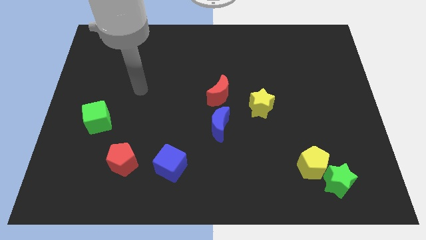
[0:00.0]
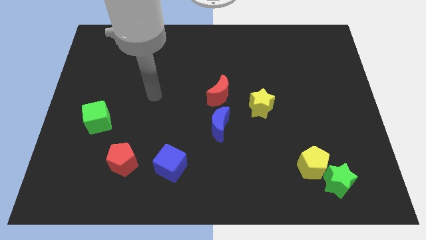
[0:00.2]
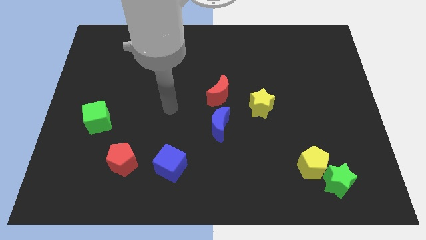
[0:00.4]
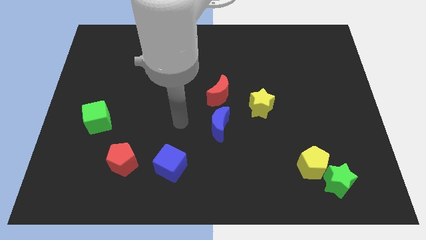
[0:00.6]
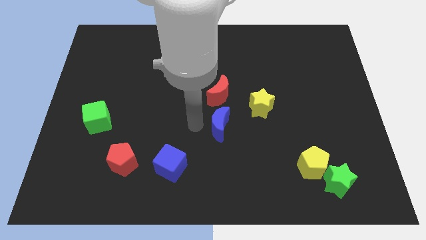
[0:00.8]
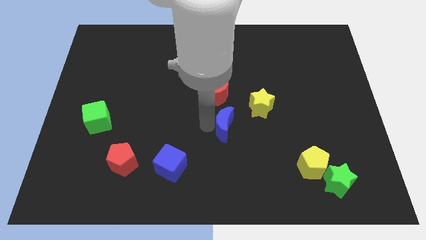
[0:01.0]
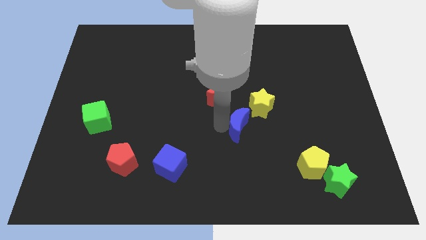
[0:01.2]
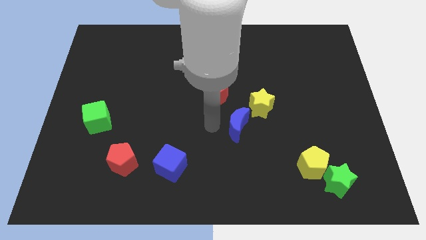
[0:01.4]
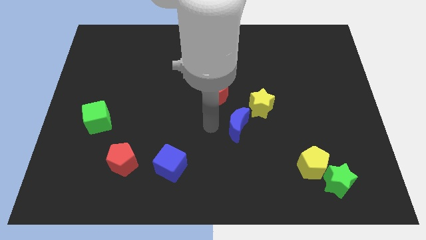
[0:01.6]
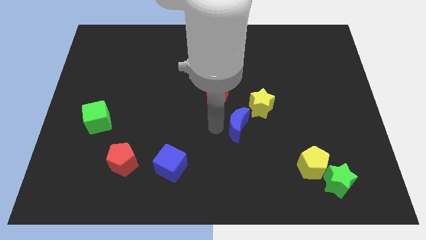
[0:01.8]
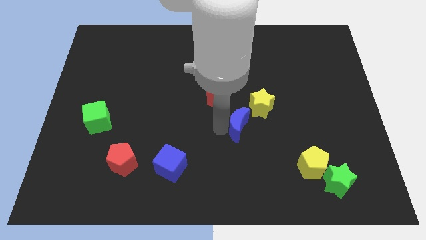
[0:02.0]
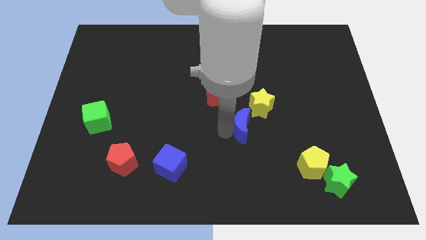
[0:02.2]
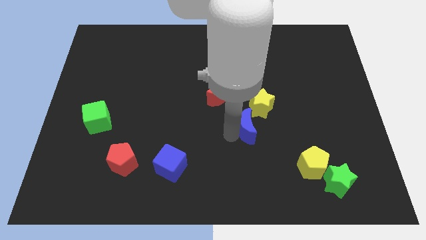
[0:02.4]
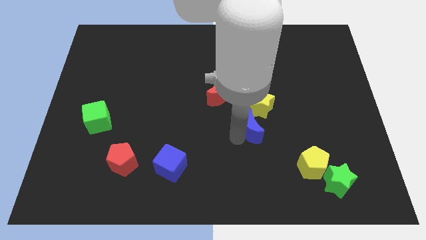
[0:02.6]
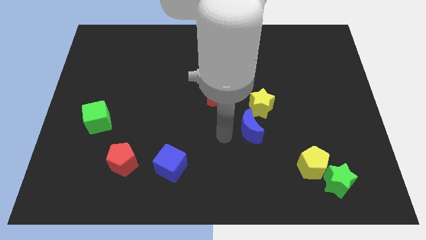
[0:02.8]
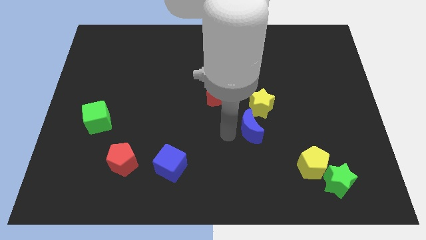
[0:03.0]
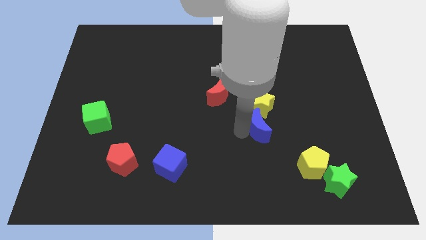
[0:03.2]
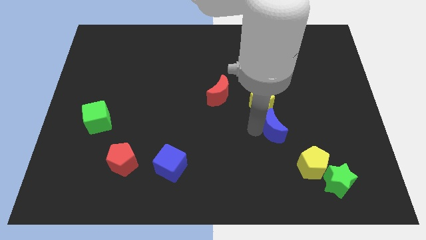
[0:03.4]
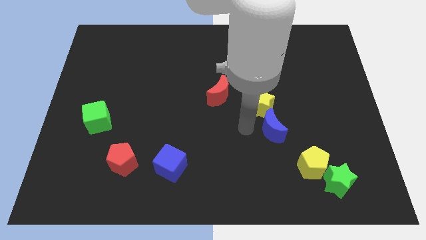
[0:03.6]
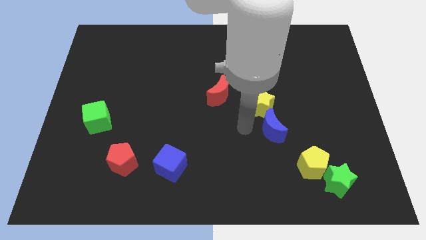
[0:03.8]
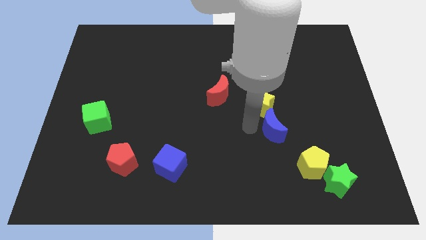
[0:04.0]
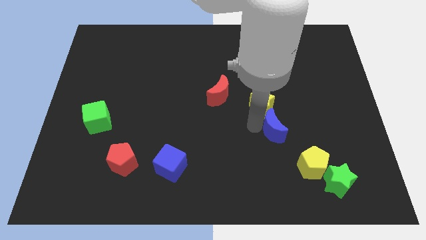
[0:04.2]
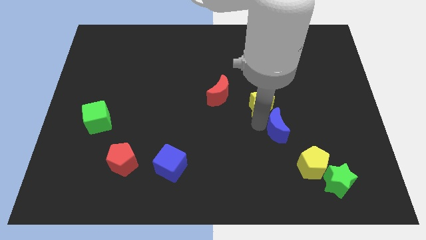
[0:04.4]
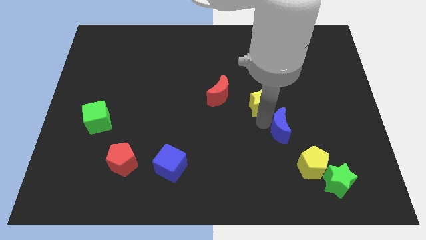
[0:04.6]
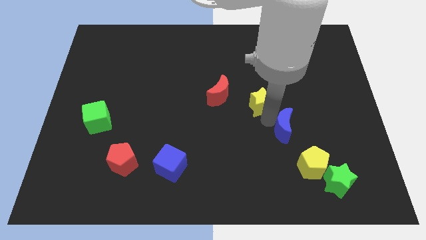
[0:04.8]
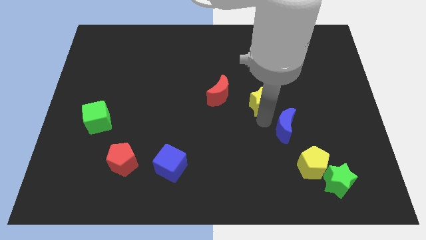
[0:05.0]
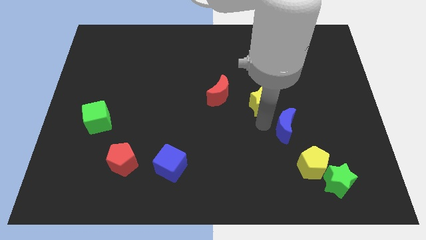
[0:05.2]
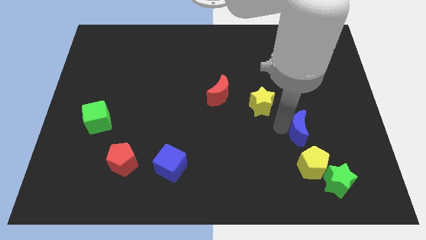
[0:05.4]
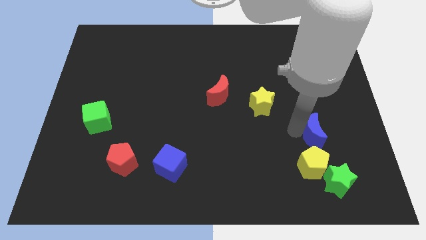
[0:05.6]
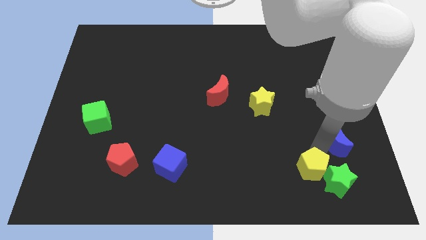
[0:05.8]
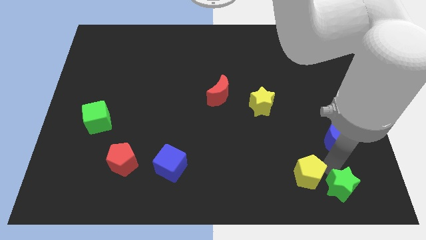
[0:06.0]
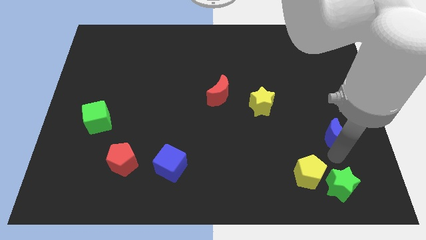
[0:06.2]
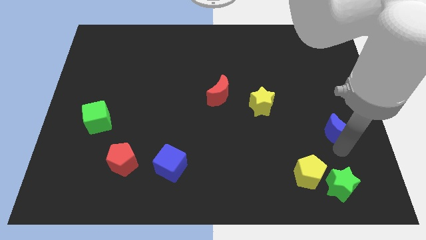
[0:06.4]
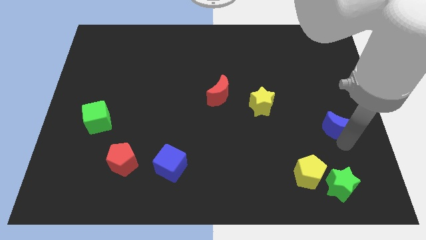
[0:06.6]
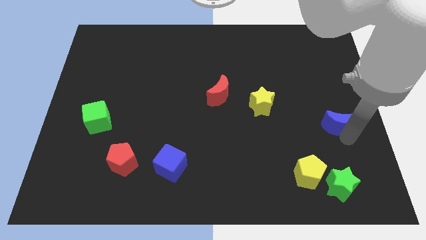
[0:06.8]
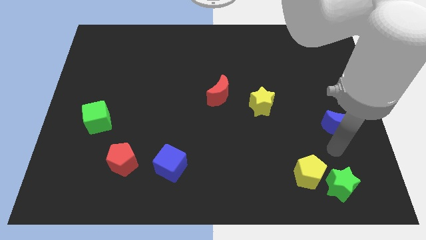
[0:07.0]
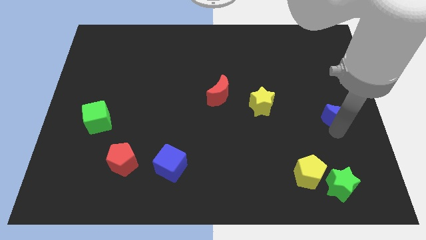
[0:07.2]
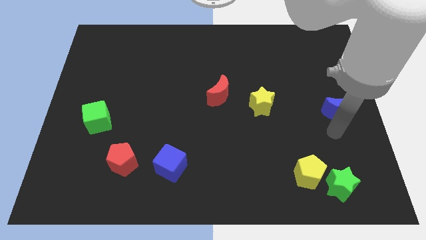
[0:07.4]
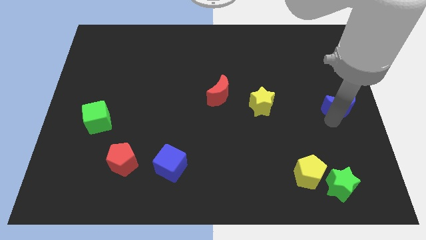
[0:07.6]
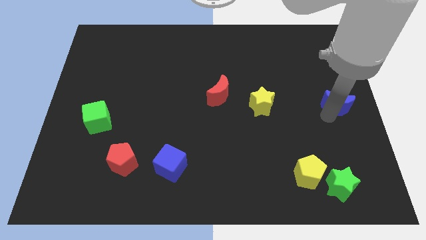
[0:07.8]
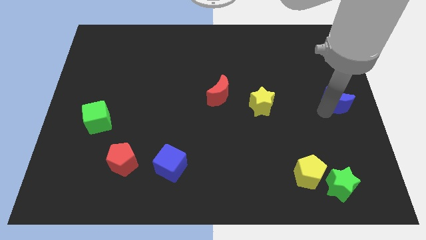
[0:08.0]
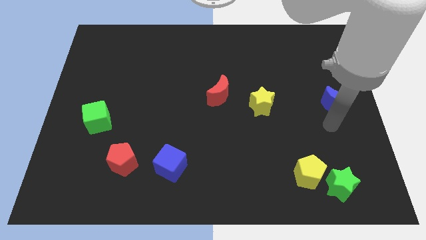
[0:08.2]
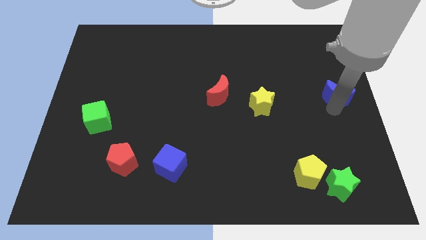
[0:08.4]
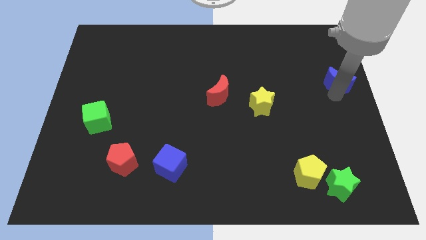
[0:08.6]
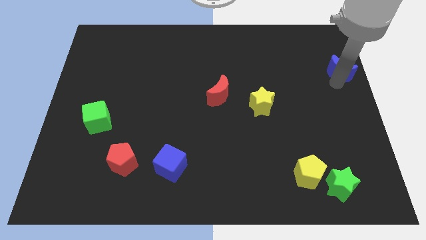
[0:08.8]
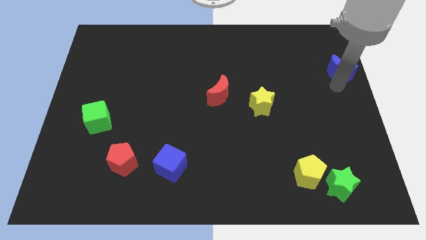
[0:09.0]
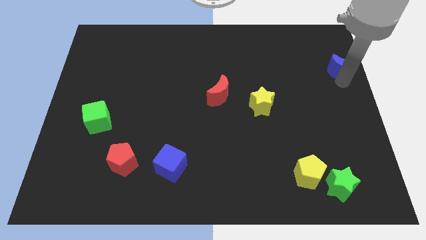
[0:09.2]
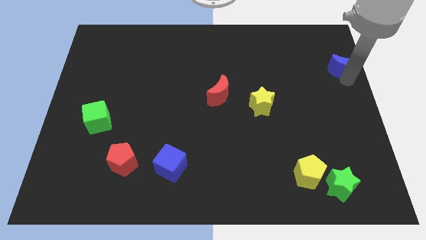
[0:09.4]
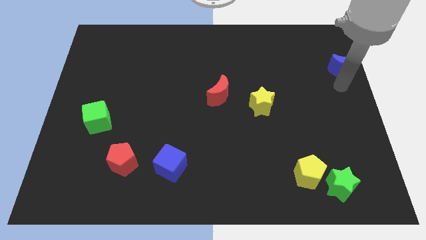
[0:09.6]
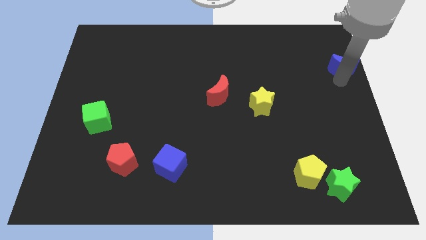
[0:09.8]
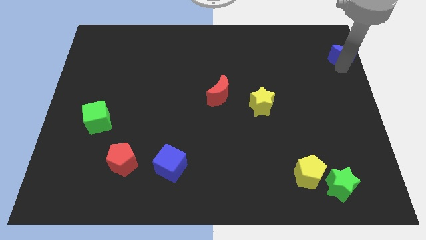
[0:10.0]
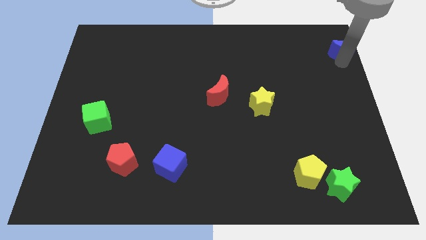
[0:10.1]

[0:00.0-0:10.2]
push the blue moon to the top right of the board

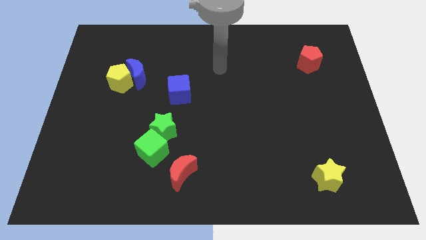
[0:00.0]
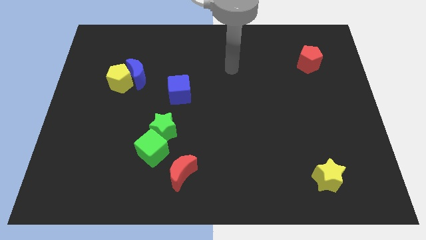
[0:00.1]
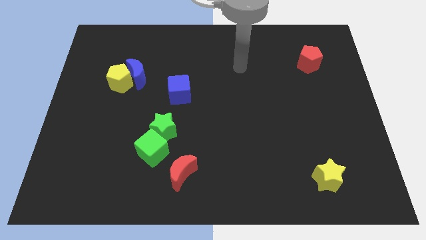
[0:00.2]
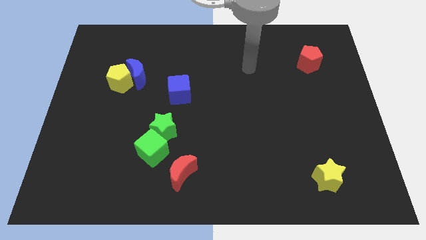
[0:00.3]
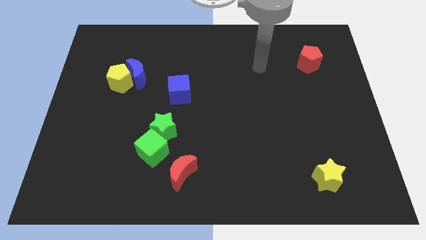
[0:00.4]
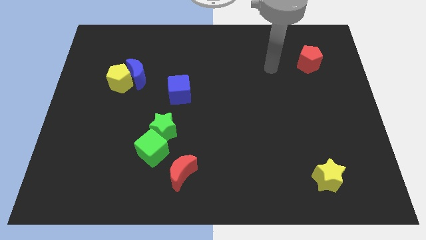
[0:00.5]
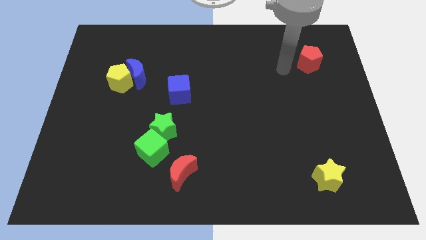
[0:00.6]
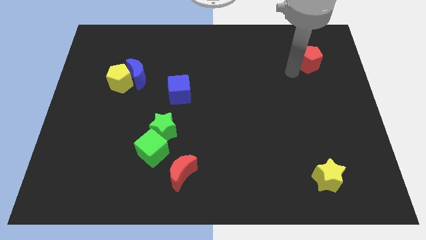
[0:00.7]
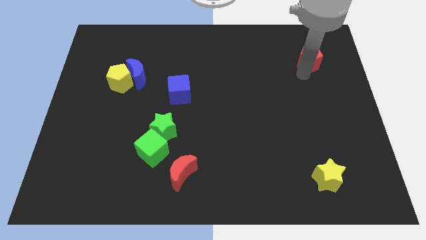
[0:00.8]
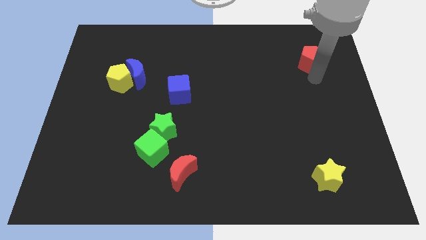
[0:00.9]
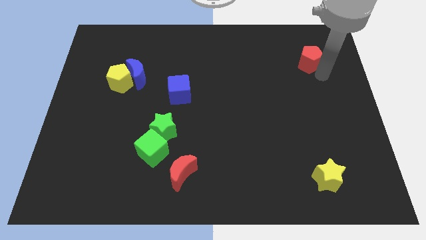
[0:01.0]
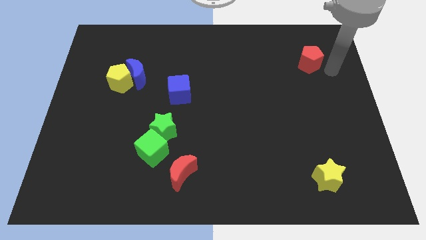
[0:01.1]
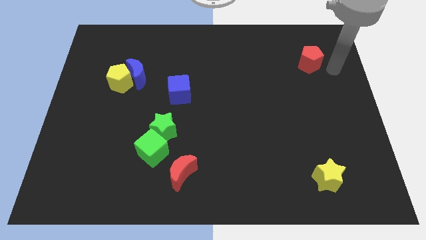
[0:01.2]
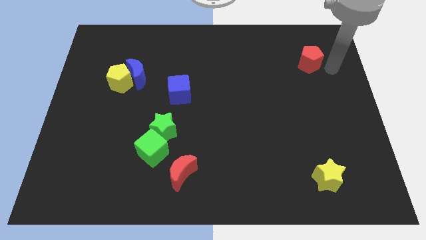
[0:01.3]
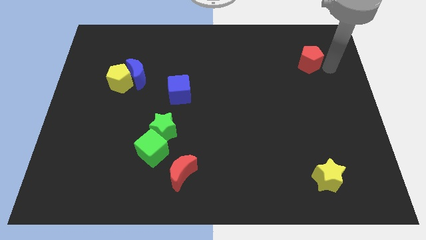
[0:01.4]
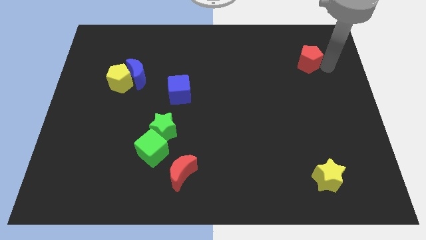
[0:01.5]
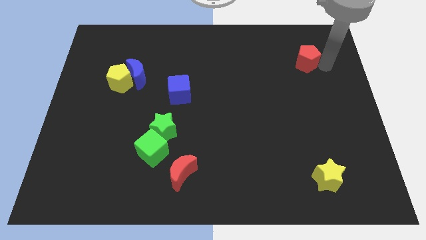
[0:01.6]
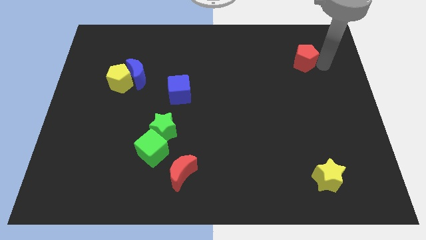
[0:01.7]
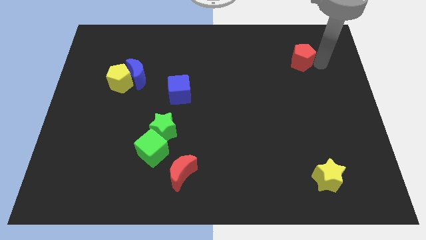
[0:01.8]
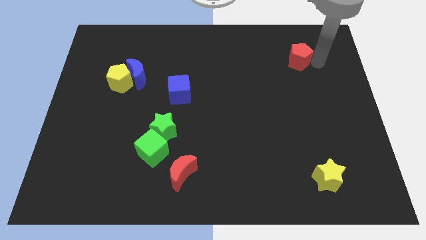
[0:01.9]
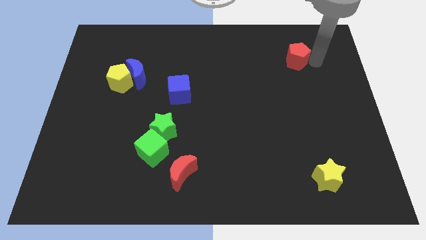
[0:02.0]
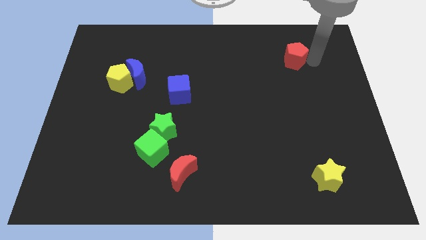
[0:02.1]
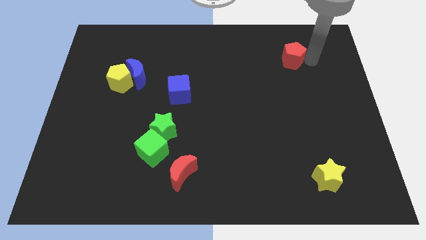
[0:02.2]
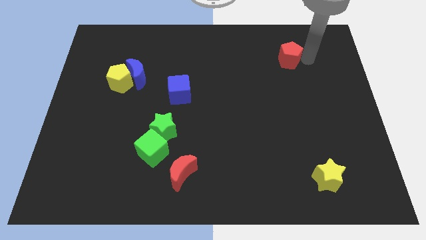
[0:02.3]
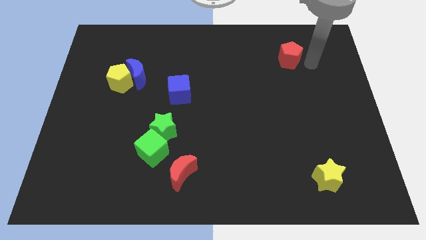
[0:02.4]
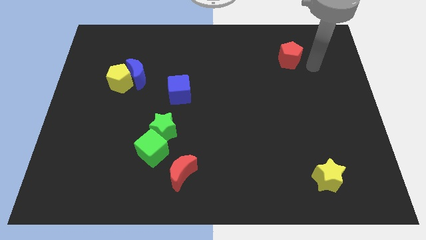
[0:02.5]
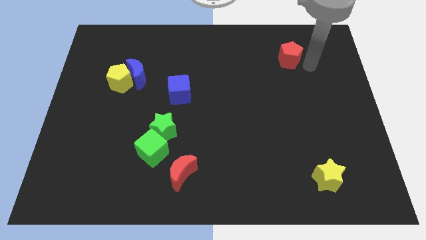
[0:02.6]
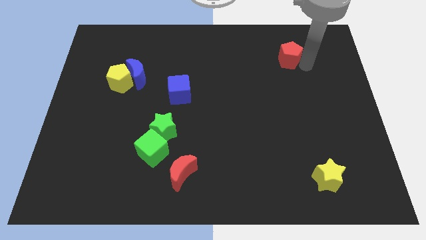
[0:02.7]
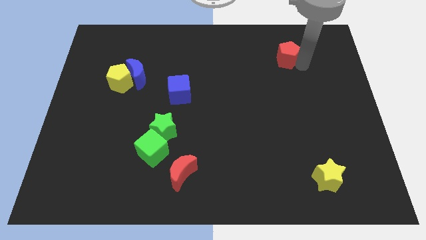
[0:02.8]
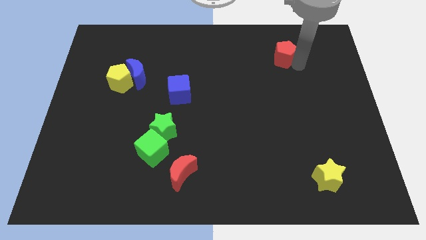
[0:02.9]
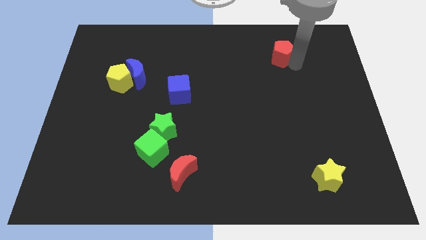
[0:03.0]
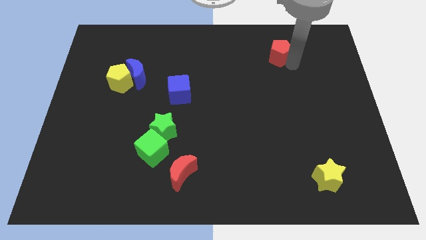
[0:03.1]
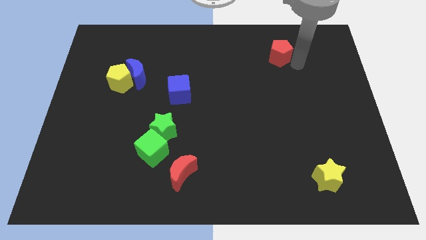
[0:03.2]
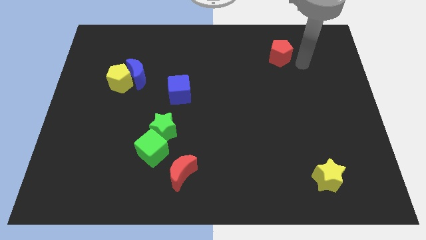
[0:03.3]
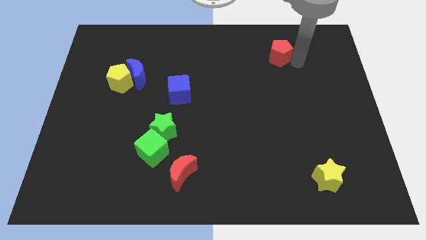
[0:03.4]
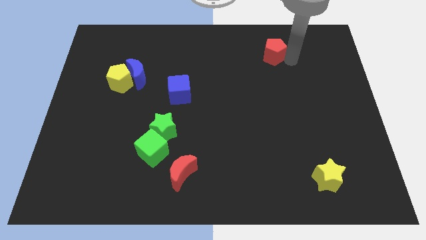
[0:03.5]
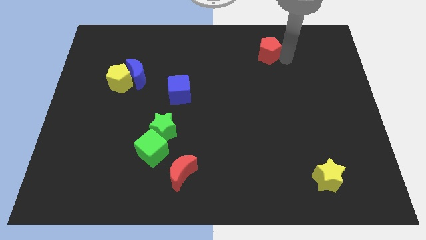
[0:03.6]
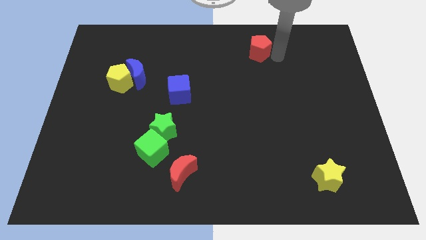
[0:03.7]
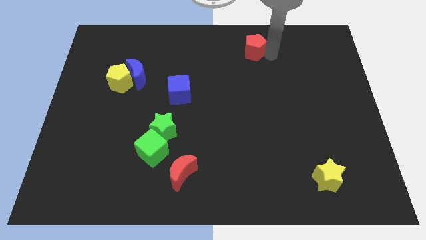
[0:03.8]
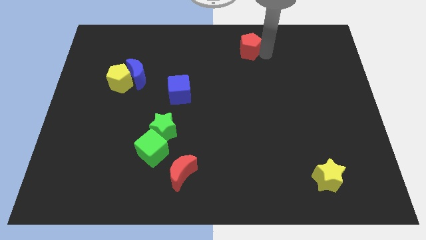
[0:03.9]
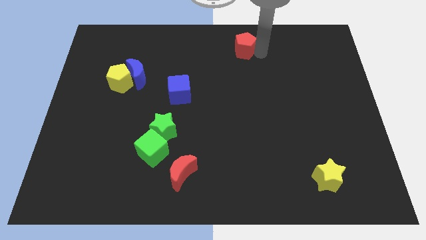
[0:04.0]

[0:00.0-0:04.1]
push the red pentagon to the top side
